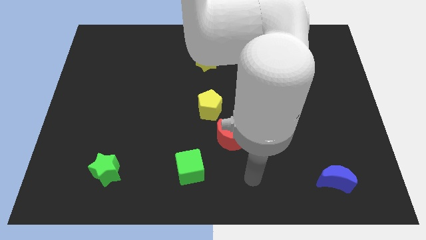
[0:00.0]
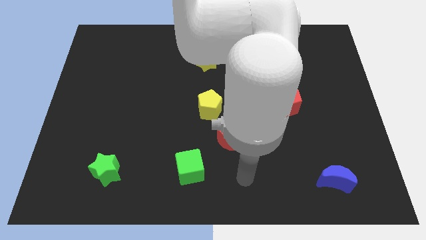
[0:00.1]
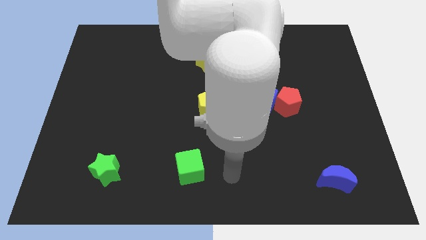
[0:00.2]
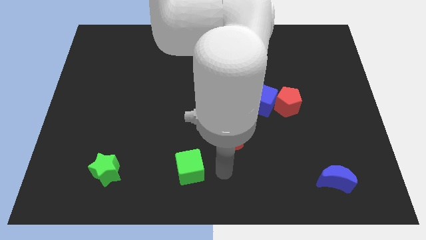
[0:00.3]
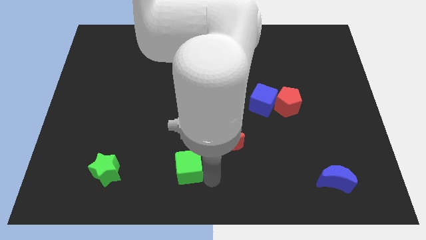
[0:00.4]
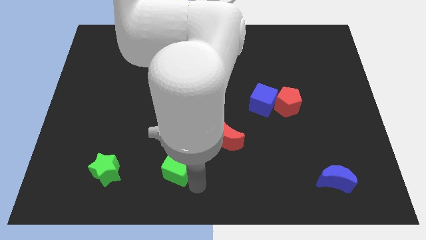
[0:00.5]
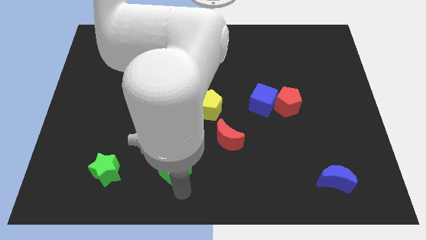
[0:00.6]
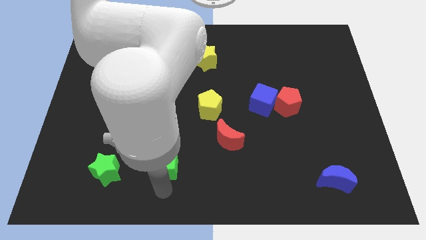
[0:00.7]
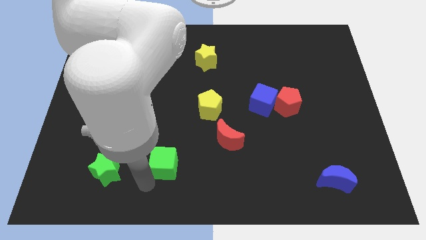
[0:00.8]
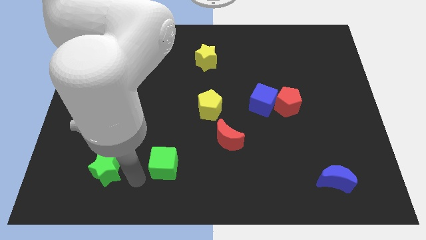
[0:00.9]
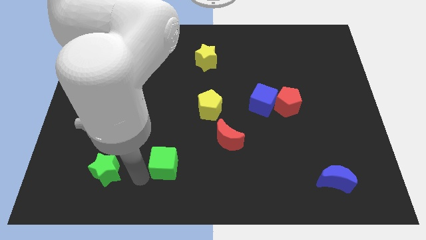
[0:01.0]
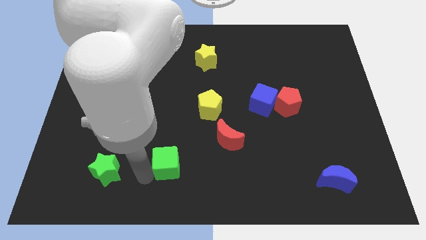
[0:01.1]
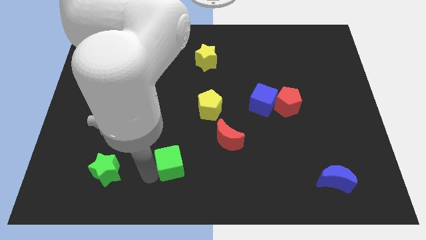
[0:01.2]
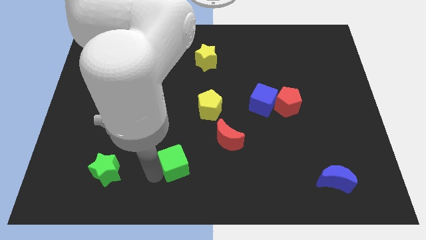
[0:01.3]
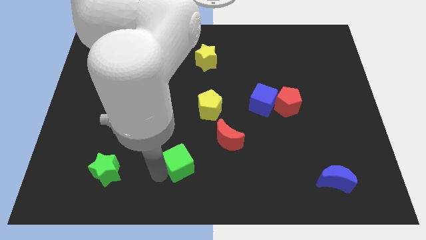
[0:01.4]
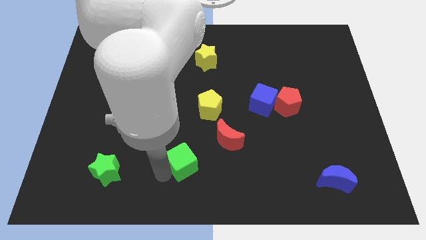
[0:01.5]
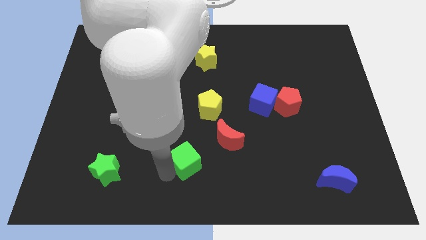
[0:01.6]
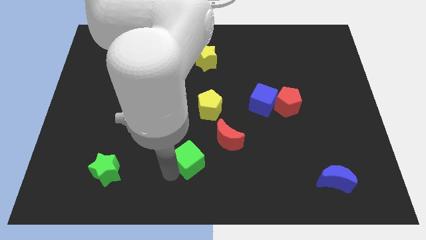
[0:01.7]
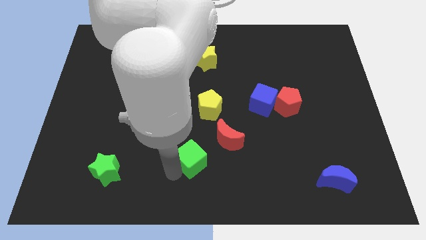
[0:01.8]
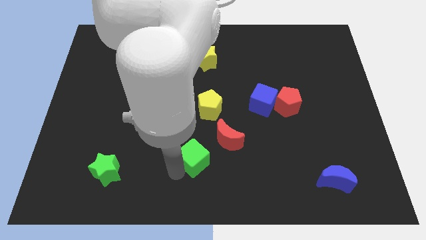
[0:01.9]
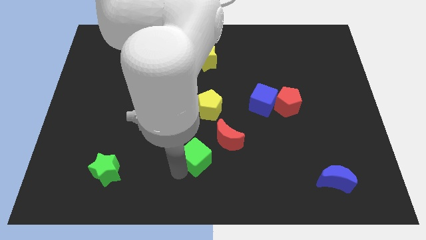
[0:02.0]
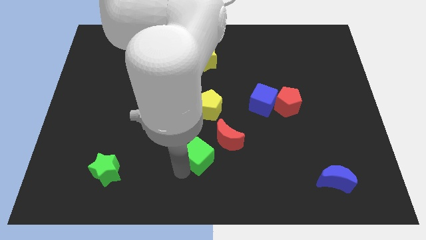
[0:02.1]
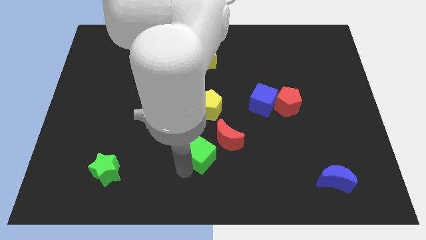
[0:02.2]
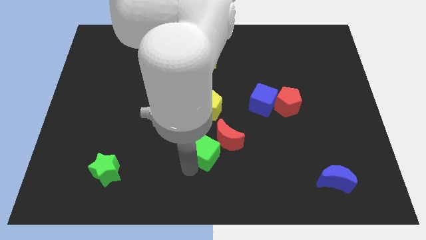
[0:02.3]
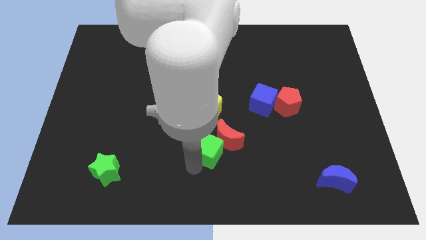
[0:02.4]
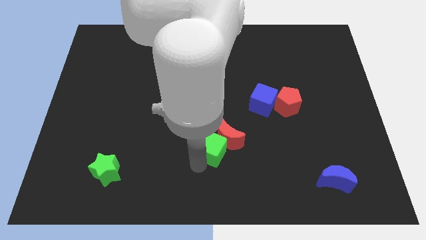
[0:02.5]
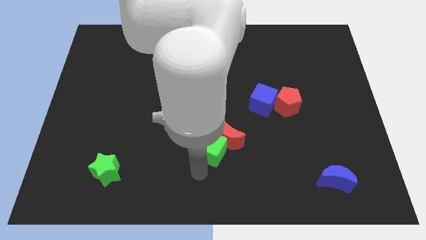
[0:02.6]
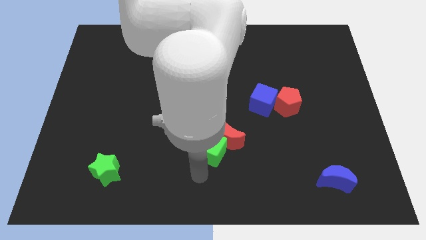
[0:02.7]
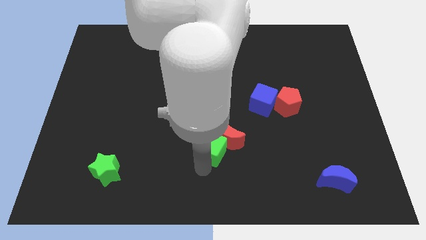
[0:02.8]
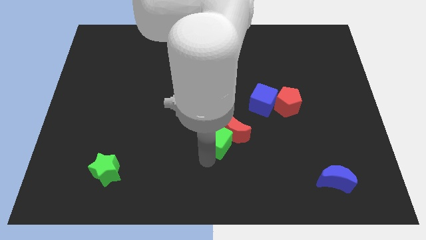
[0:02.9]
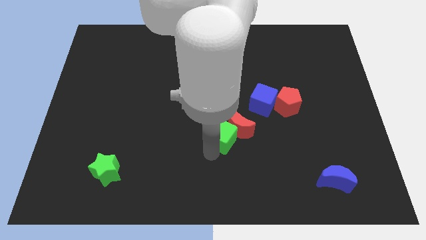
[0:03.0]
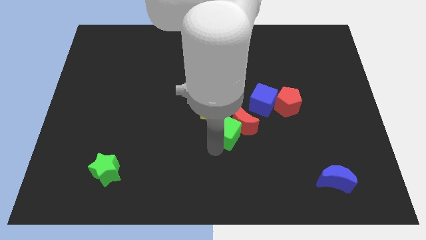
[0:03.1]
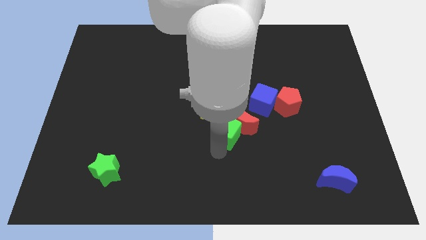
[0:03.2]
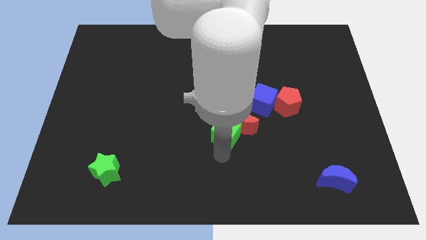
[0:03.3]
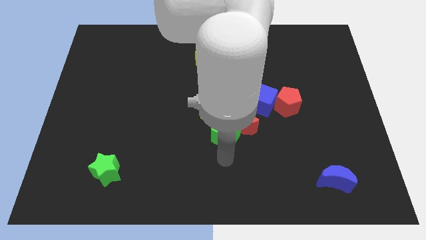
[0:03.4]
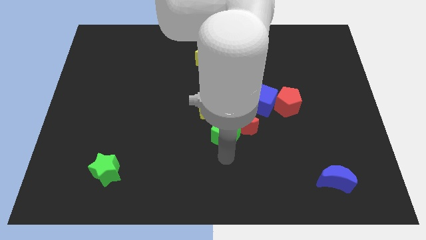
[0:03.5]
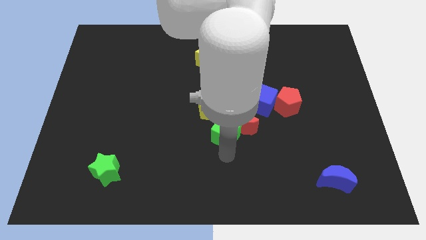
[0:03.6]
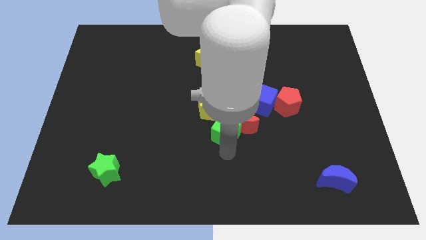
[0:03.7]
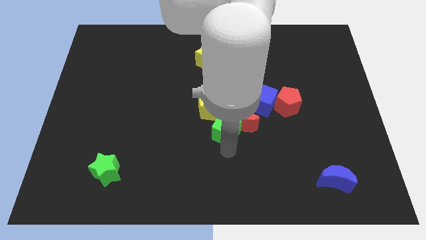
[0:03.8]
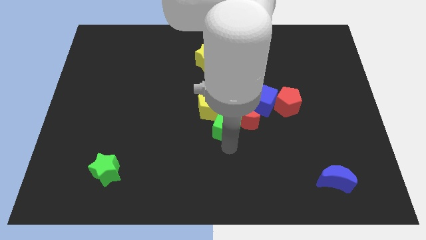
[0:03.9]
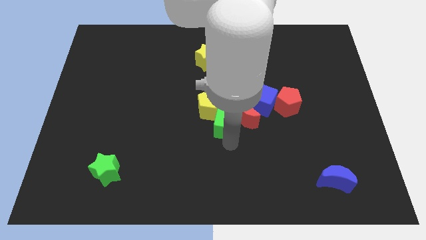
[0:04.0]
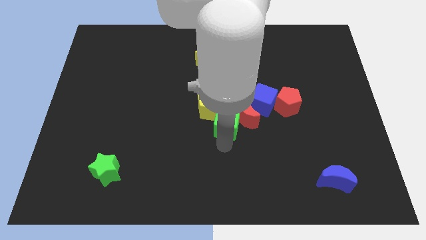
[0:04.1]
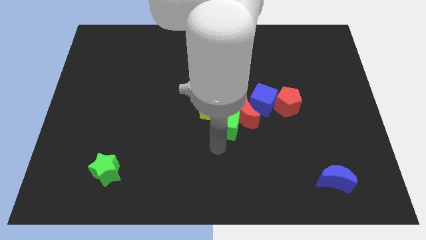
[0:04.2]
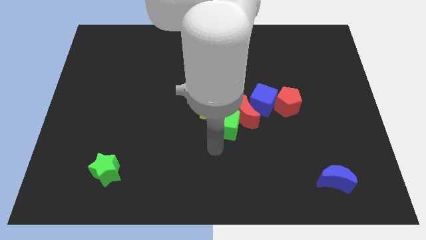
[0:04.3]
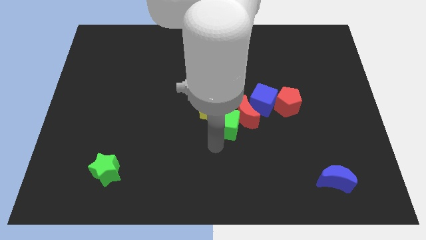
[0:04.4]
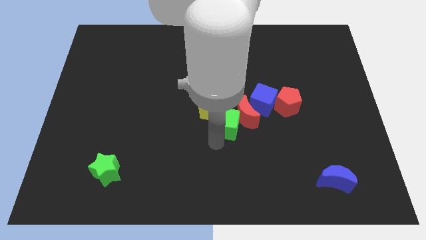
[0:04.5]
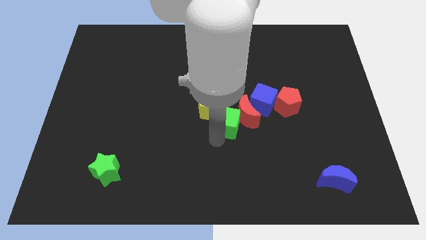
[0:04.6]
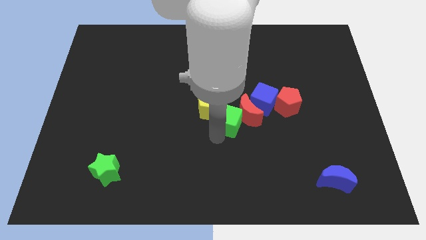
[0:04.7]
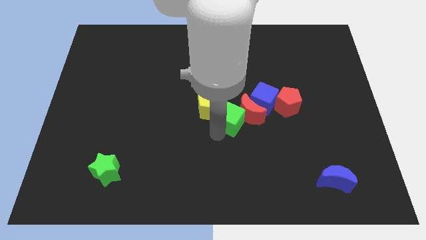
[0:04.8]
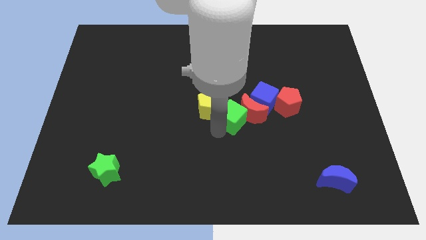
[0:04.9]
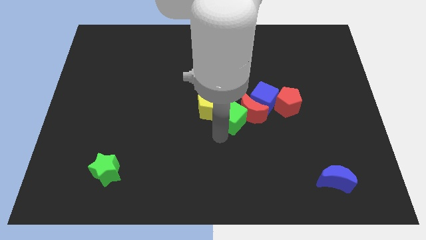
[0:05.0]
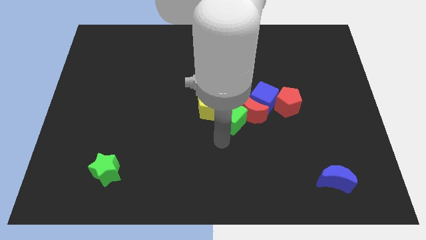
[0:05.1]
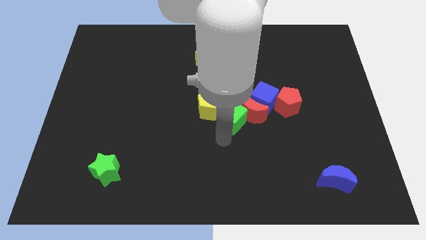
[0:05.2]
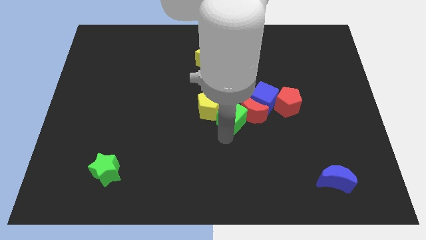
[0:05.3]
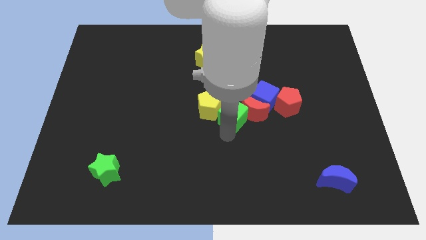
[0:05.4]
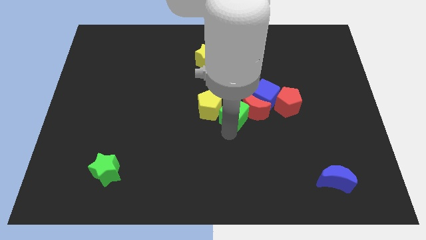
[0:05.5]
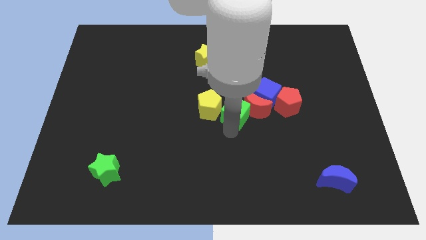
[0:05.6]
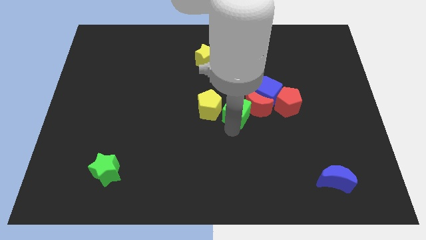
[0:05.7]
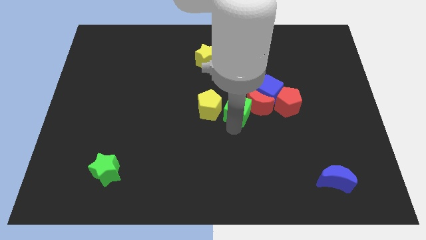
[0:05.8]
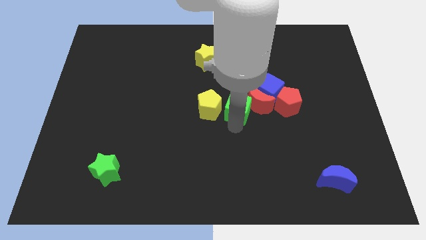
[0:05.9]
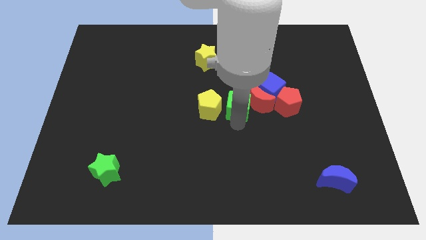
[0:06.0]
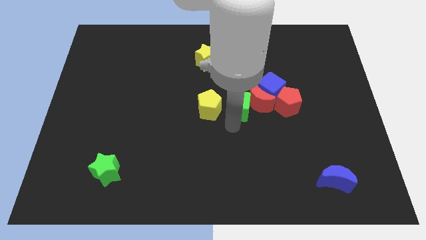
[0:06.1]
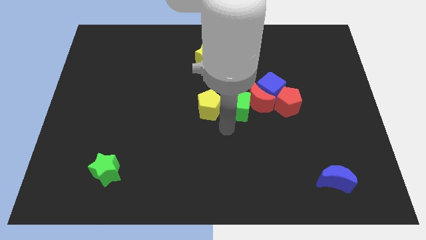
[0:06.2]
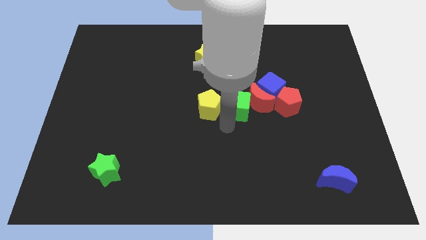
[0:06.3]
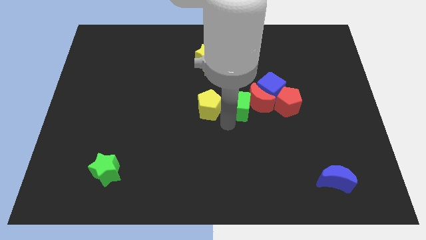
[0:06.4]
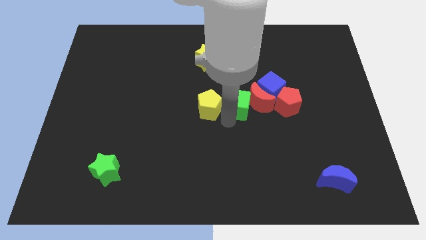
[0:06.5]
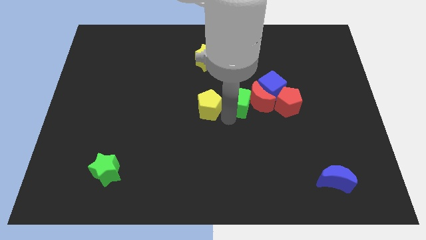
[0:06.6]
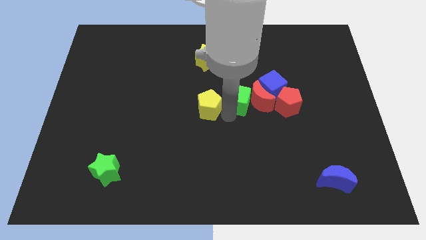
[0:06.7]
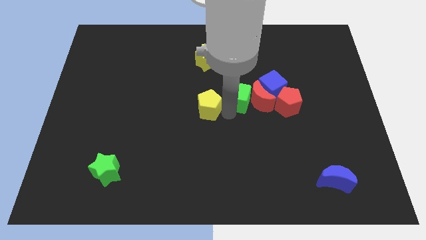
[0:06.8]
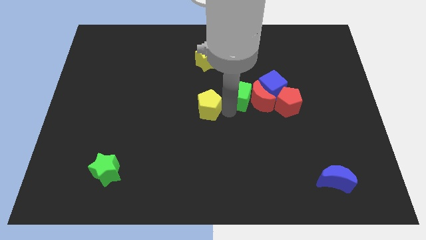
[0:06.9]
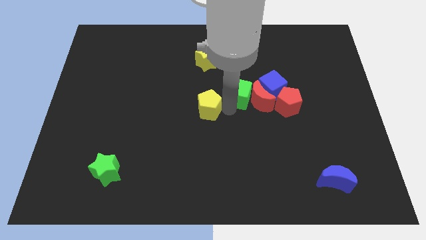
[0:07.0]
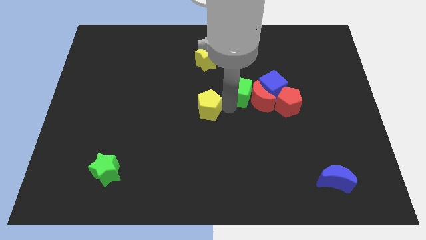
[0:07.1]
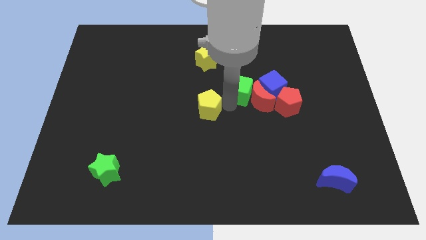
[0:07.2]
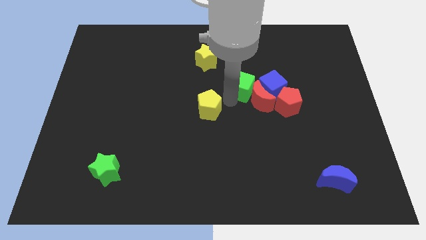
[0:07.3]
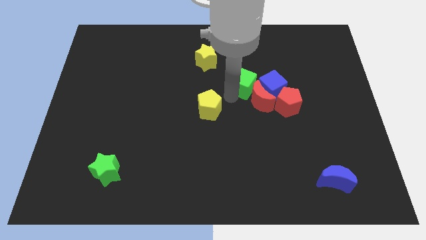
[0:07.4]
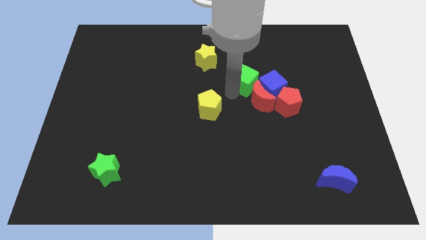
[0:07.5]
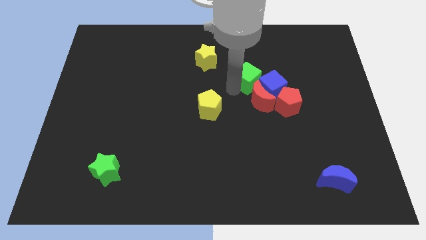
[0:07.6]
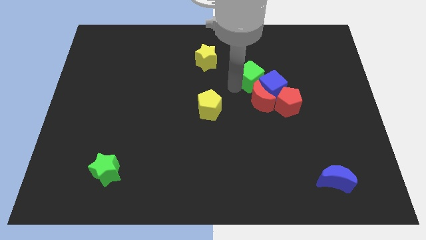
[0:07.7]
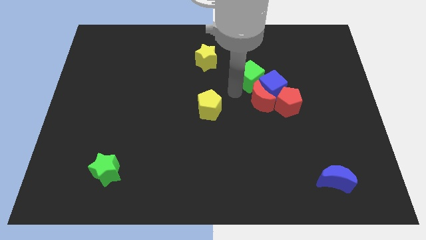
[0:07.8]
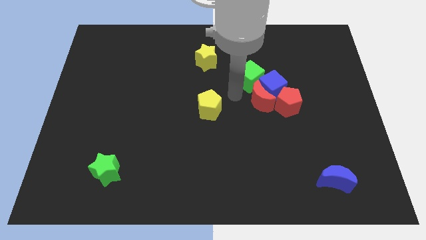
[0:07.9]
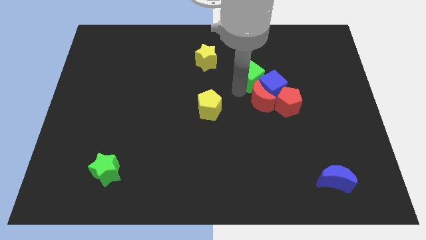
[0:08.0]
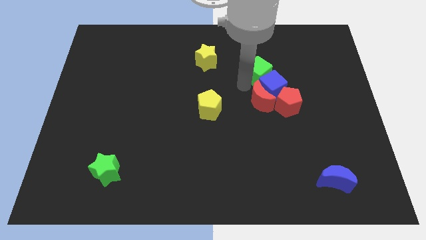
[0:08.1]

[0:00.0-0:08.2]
slide the green cube to the top side of the blue cube
